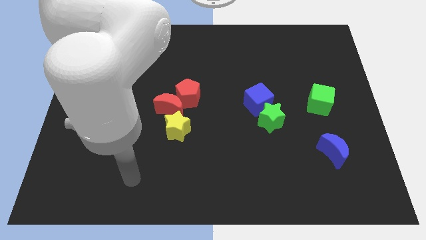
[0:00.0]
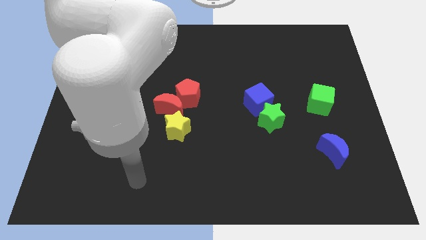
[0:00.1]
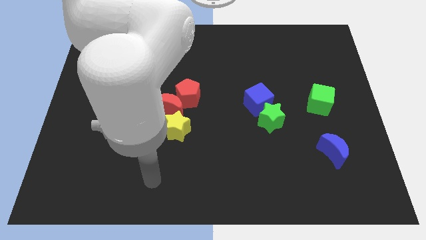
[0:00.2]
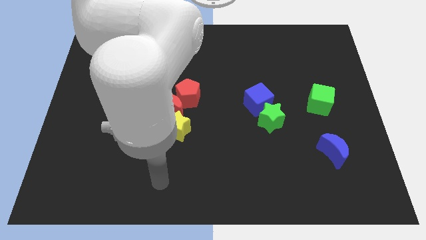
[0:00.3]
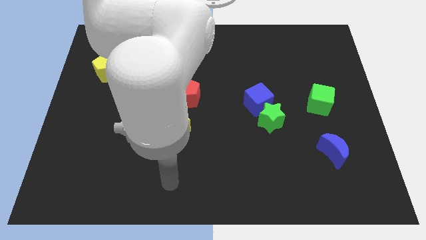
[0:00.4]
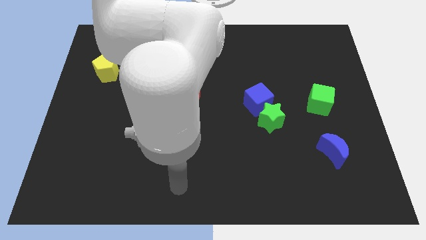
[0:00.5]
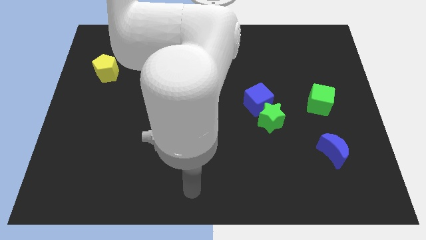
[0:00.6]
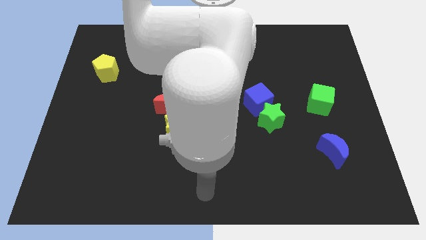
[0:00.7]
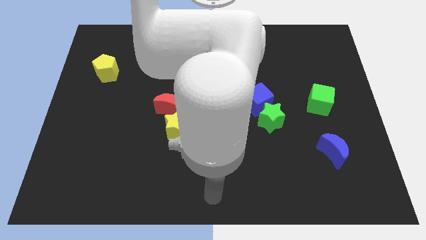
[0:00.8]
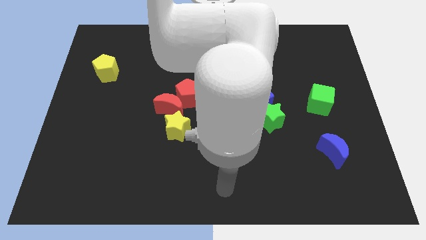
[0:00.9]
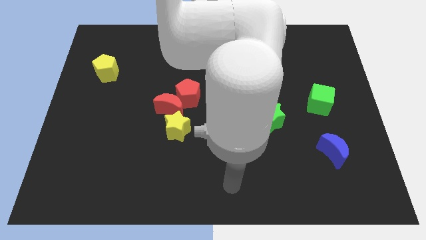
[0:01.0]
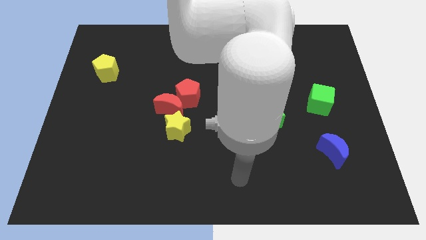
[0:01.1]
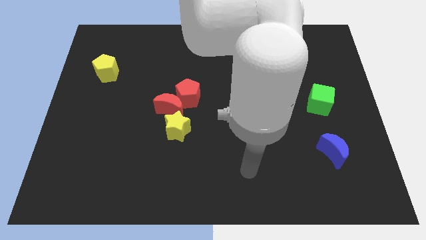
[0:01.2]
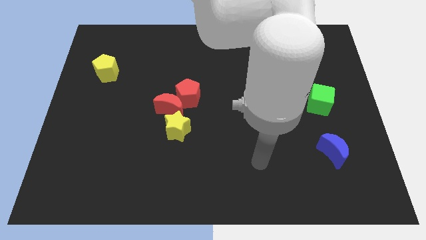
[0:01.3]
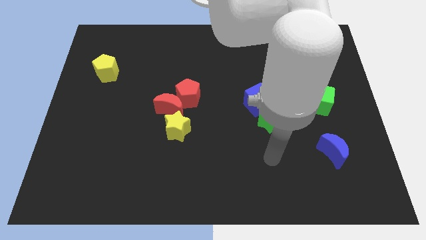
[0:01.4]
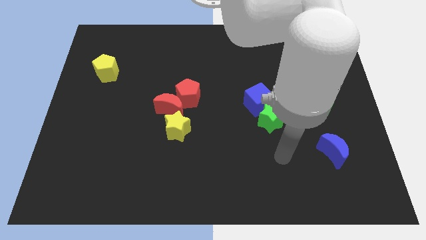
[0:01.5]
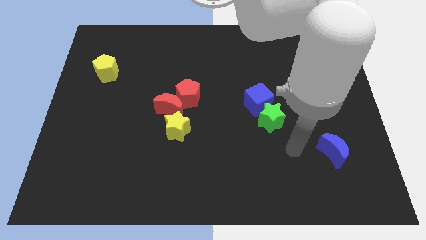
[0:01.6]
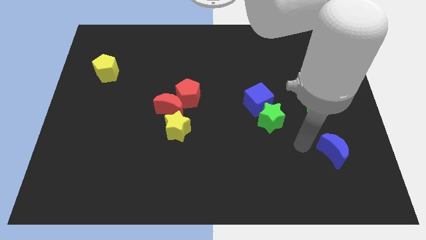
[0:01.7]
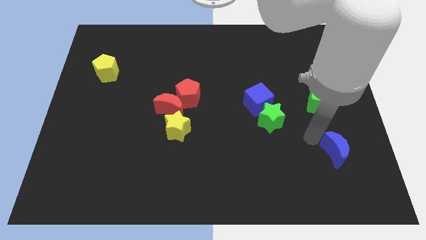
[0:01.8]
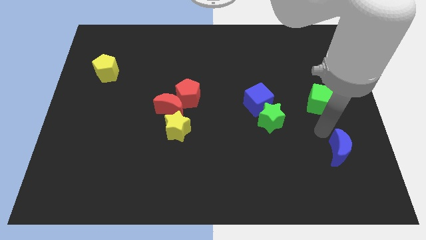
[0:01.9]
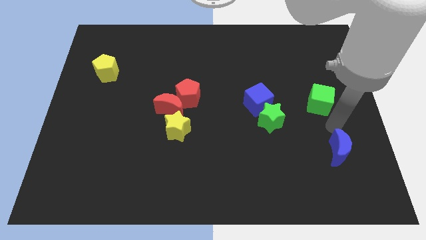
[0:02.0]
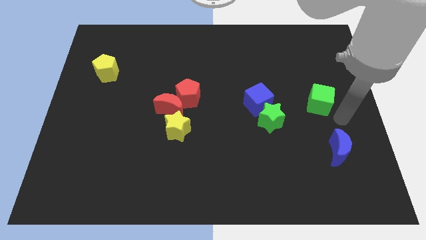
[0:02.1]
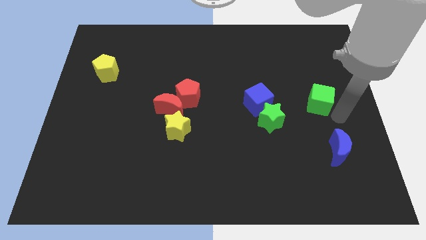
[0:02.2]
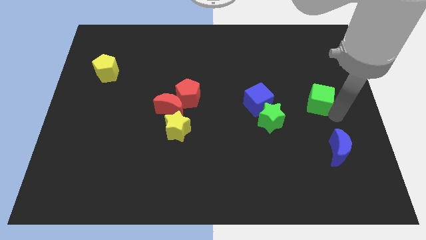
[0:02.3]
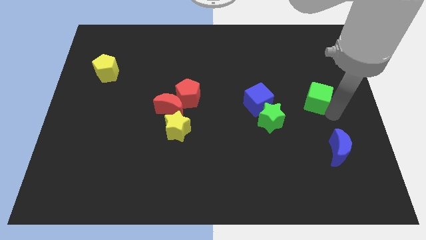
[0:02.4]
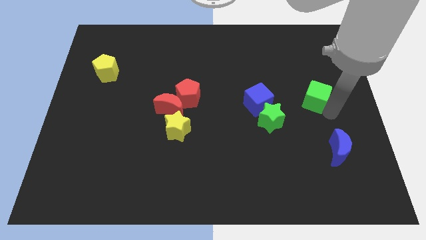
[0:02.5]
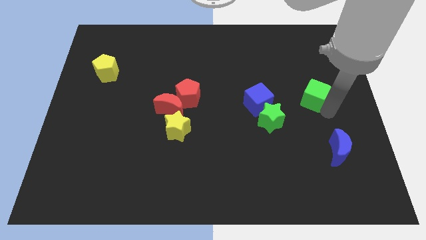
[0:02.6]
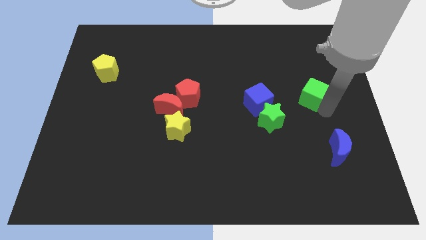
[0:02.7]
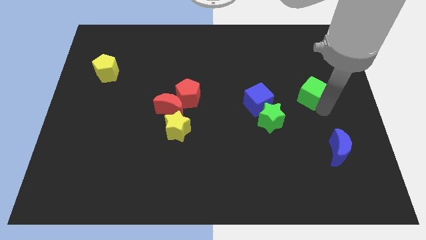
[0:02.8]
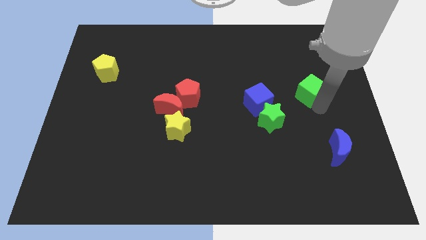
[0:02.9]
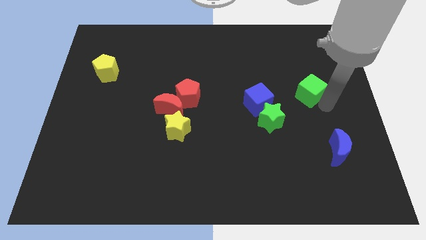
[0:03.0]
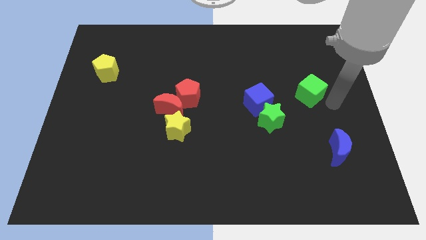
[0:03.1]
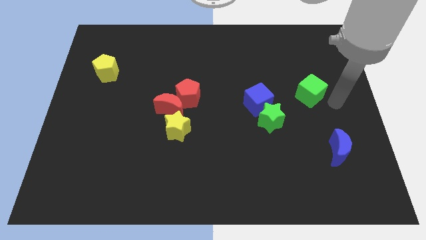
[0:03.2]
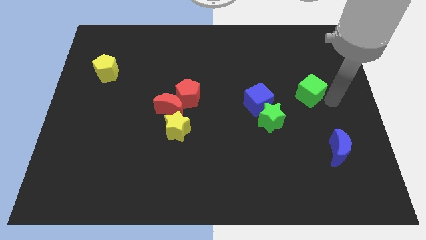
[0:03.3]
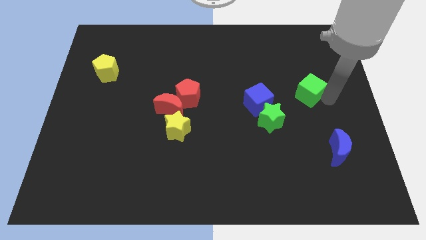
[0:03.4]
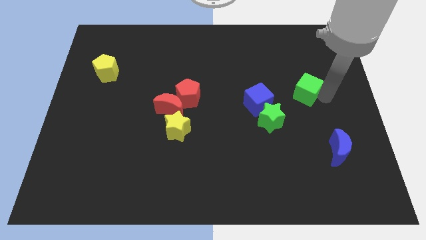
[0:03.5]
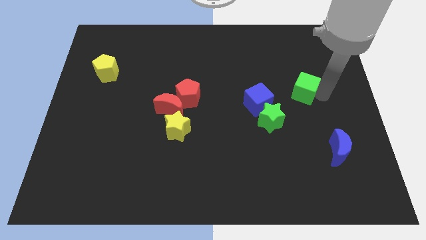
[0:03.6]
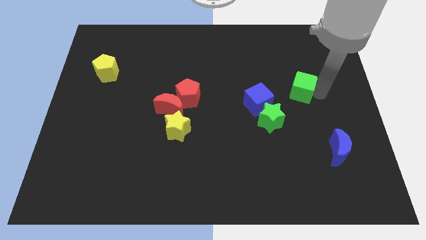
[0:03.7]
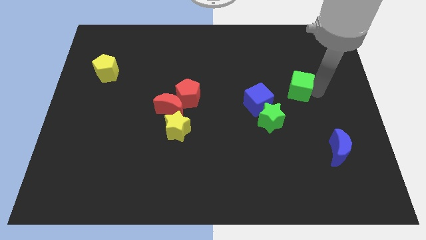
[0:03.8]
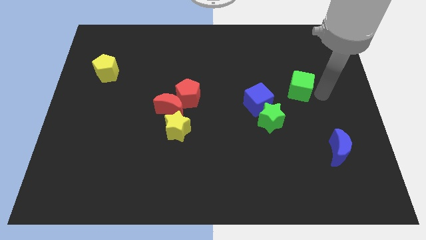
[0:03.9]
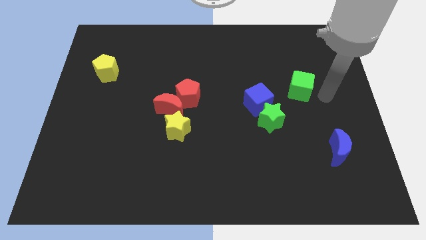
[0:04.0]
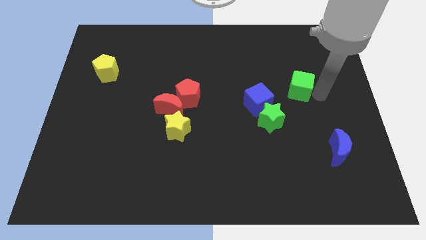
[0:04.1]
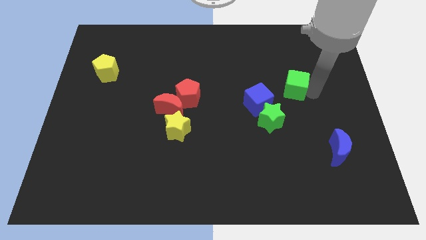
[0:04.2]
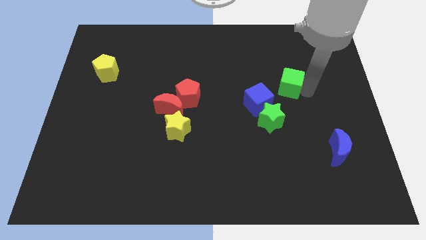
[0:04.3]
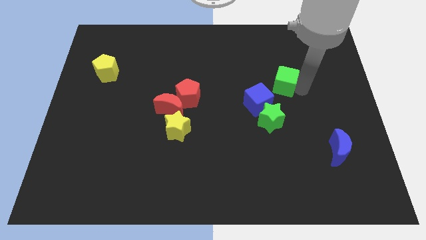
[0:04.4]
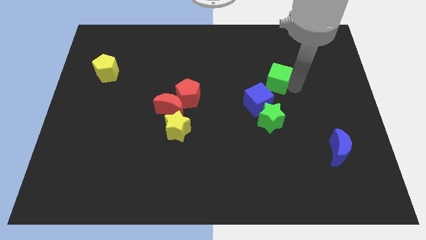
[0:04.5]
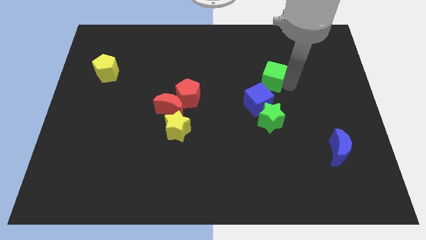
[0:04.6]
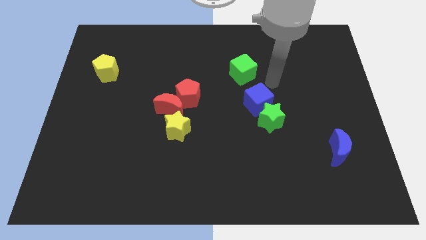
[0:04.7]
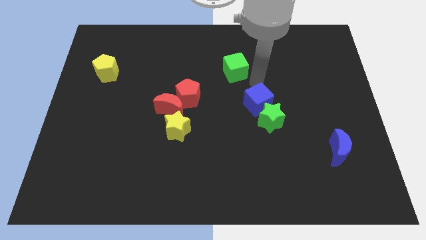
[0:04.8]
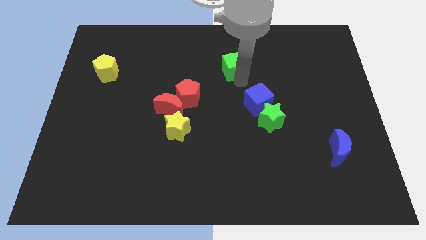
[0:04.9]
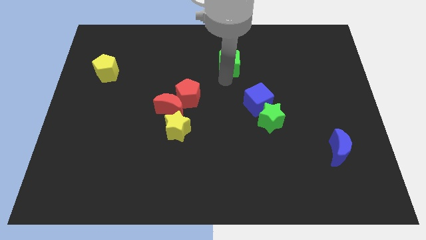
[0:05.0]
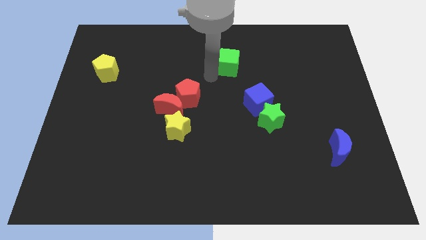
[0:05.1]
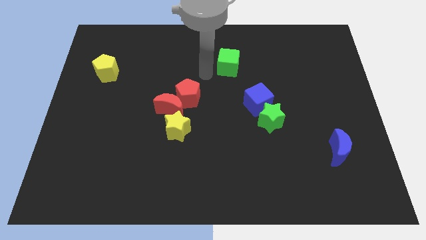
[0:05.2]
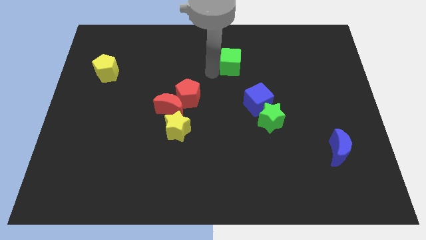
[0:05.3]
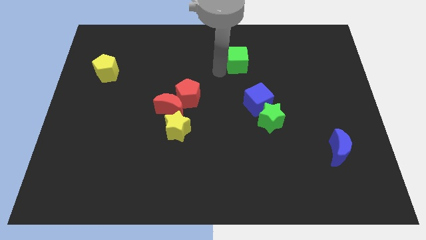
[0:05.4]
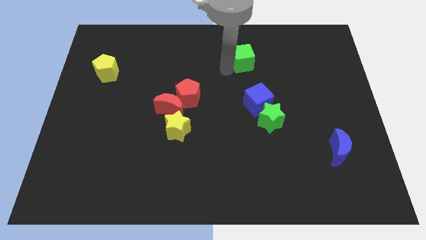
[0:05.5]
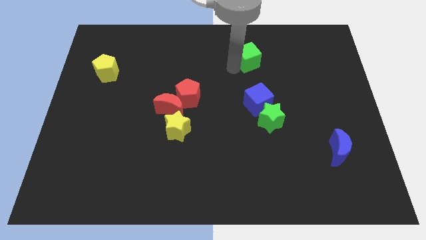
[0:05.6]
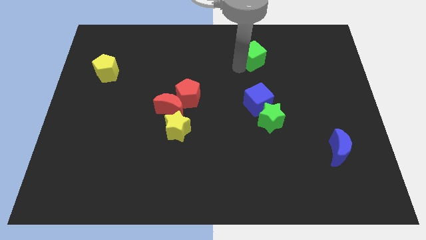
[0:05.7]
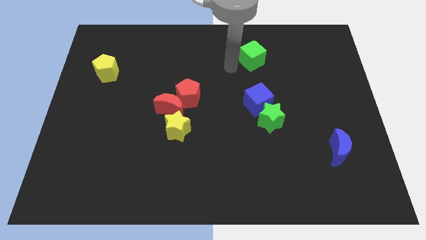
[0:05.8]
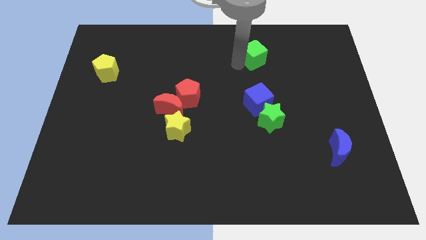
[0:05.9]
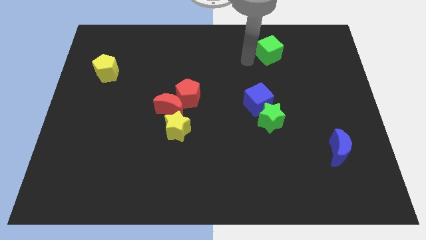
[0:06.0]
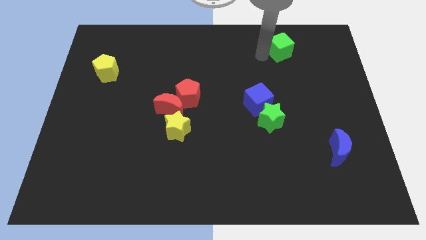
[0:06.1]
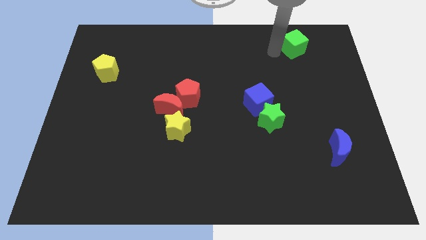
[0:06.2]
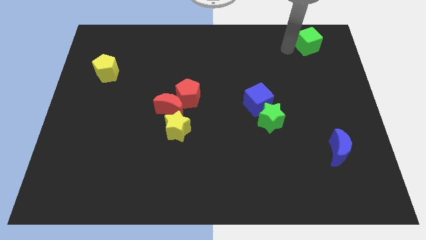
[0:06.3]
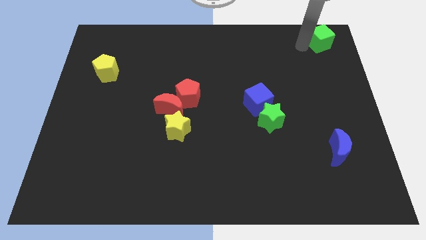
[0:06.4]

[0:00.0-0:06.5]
slide the green cube to the upper right corner
